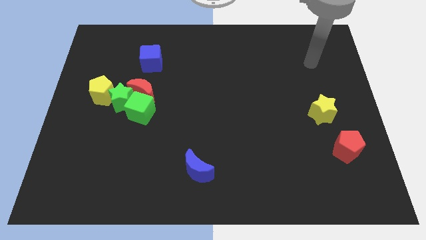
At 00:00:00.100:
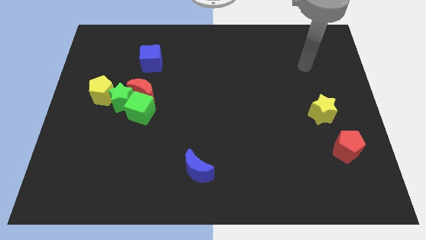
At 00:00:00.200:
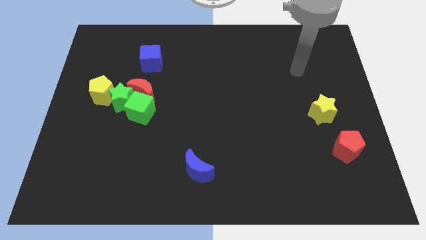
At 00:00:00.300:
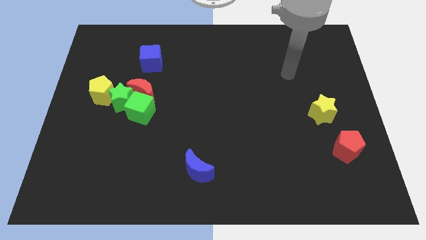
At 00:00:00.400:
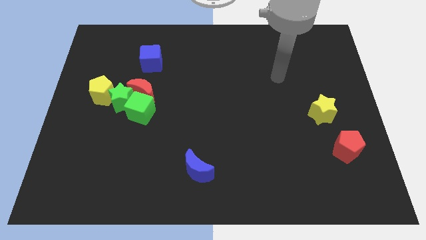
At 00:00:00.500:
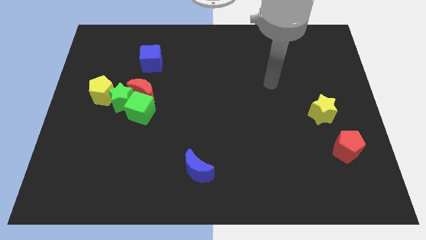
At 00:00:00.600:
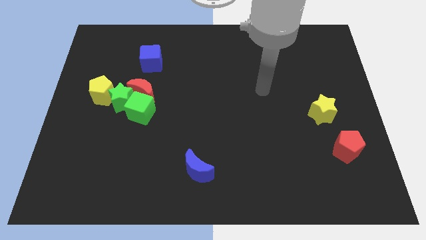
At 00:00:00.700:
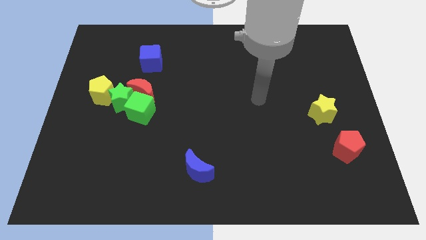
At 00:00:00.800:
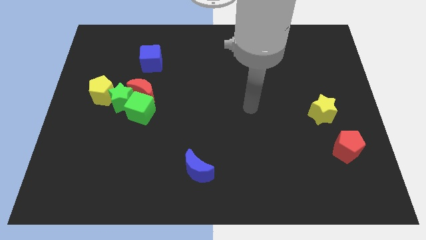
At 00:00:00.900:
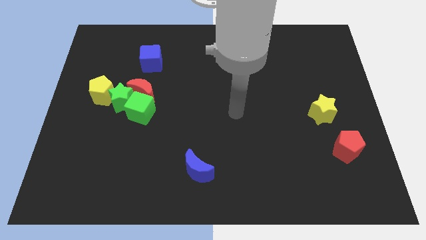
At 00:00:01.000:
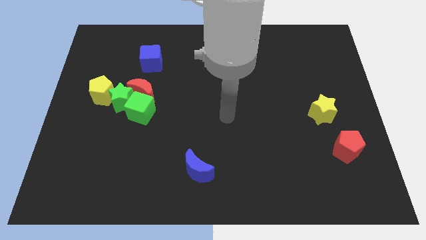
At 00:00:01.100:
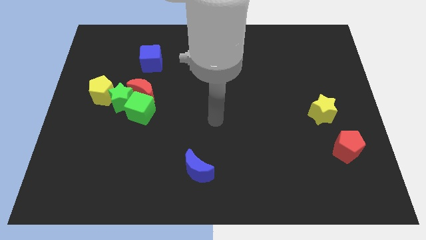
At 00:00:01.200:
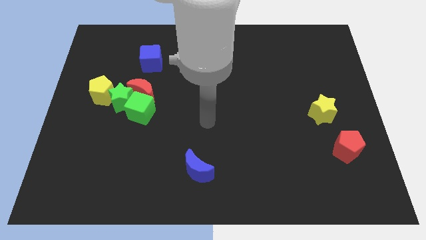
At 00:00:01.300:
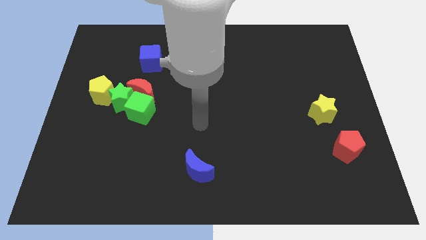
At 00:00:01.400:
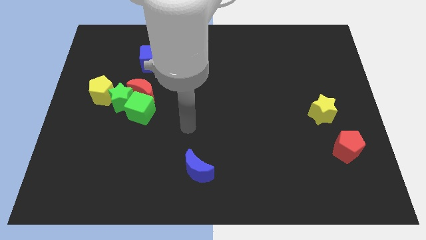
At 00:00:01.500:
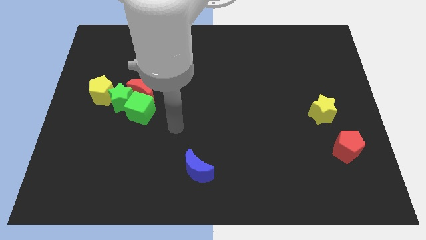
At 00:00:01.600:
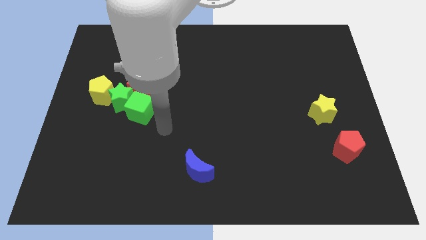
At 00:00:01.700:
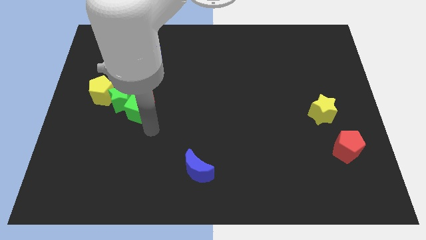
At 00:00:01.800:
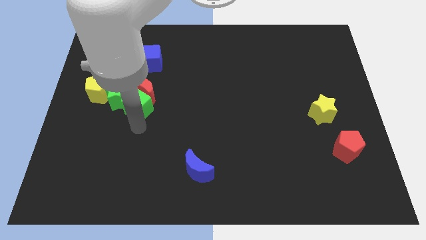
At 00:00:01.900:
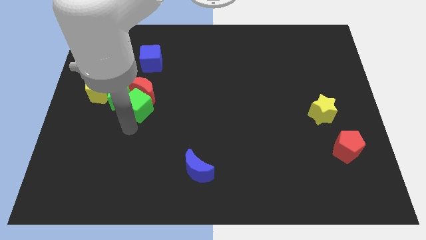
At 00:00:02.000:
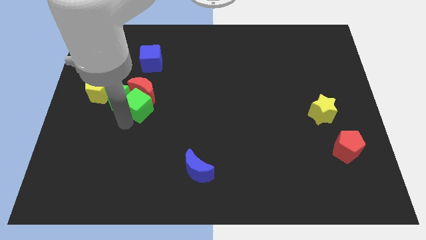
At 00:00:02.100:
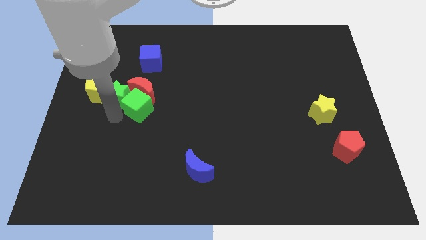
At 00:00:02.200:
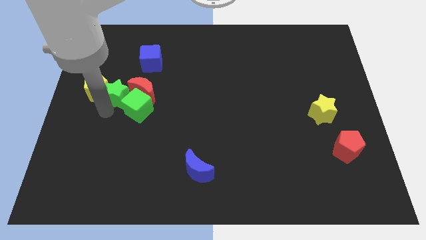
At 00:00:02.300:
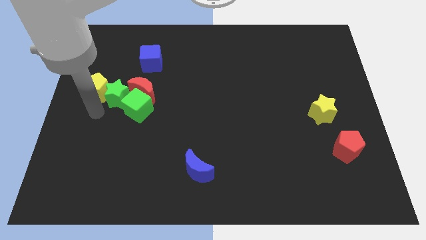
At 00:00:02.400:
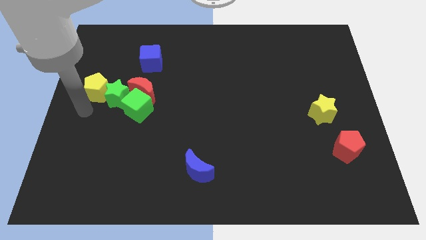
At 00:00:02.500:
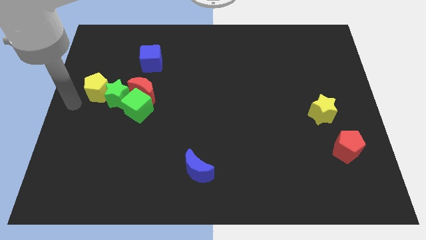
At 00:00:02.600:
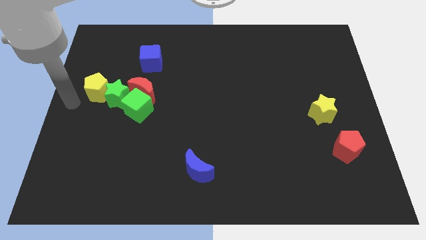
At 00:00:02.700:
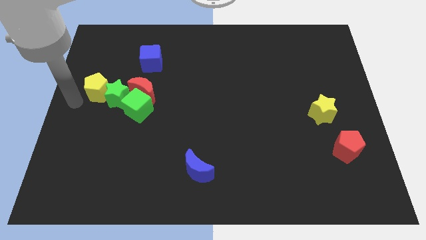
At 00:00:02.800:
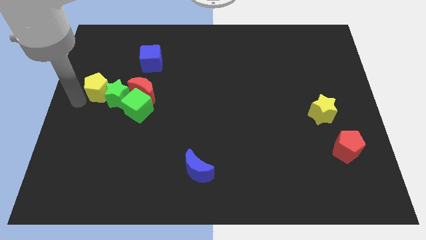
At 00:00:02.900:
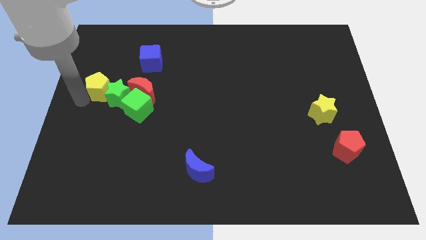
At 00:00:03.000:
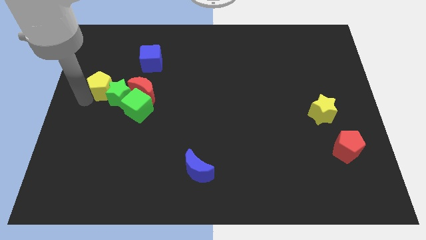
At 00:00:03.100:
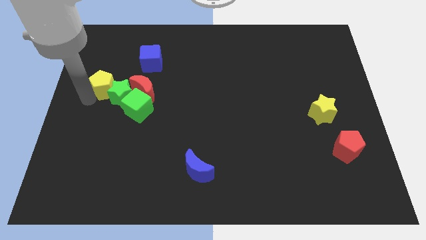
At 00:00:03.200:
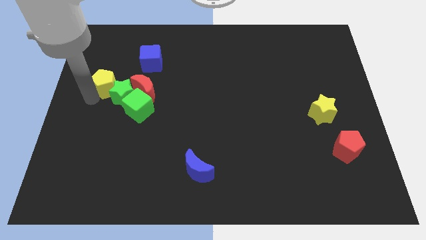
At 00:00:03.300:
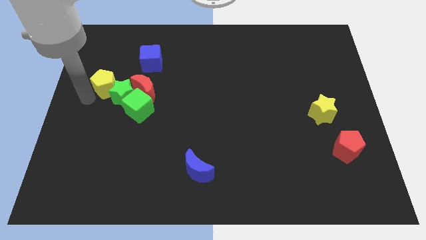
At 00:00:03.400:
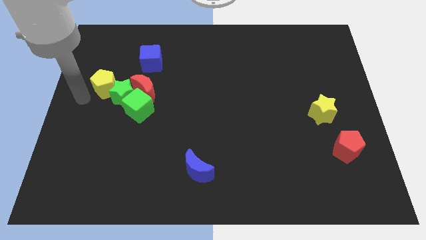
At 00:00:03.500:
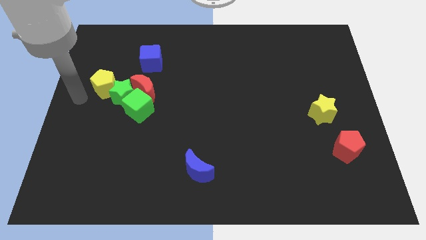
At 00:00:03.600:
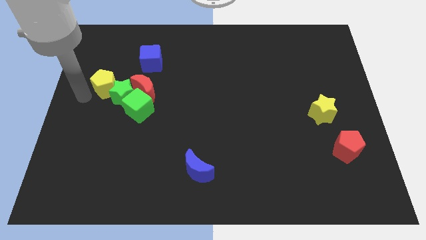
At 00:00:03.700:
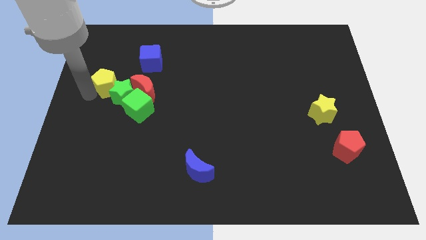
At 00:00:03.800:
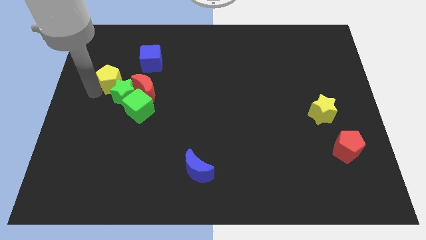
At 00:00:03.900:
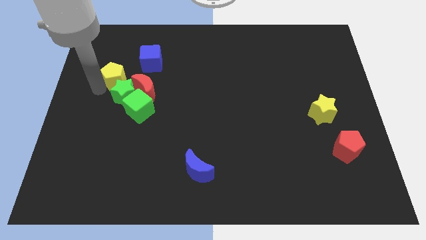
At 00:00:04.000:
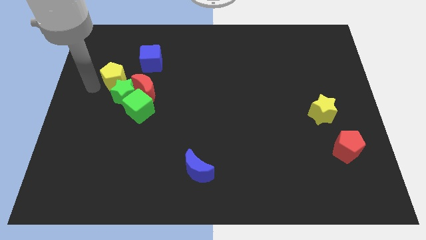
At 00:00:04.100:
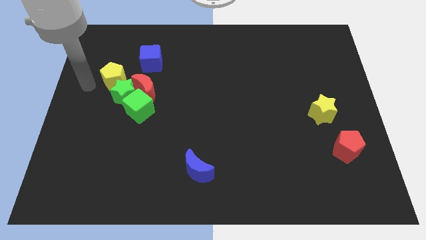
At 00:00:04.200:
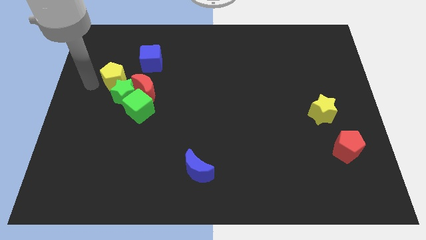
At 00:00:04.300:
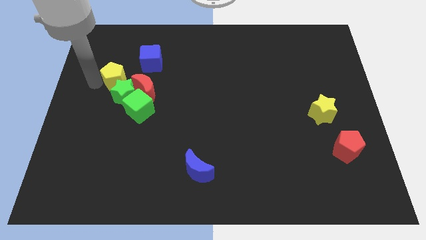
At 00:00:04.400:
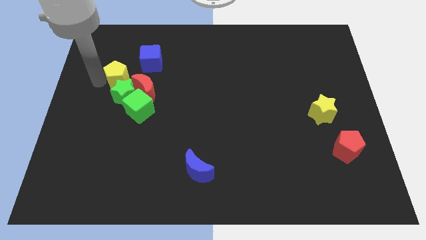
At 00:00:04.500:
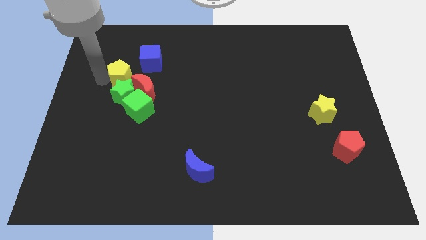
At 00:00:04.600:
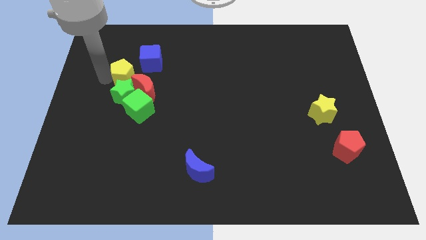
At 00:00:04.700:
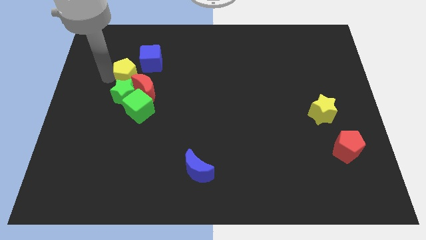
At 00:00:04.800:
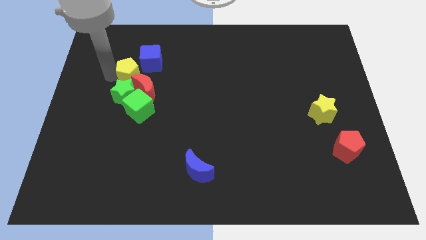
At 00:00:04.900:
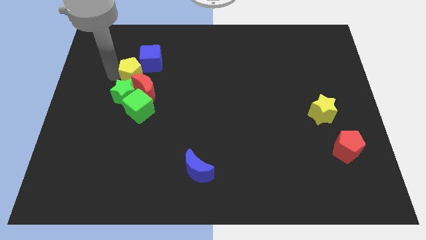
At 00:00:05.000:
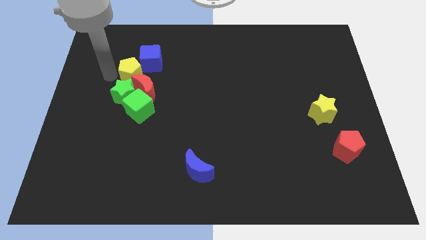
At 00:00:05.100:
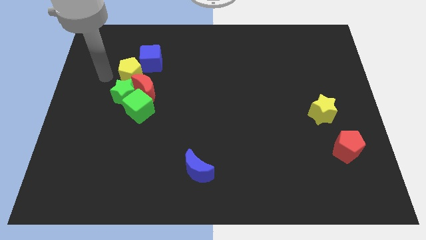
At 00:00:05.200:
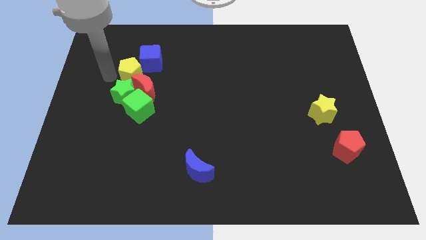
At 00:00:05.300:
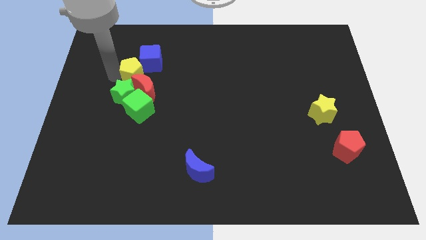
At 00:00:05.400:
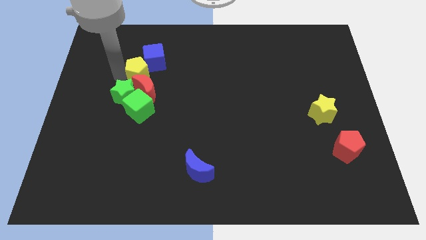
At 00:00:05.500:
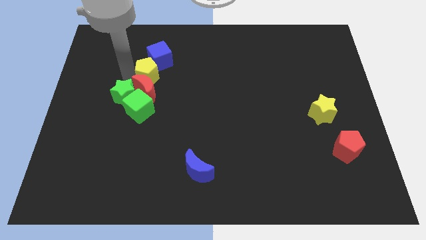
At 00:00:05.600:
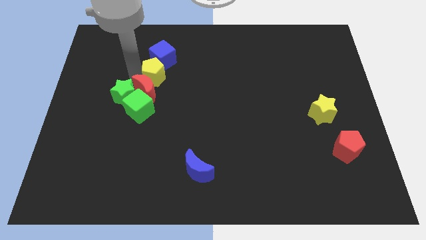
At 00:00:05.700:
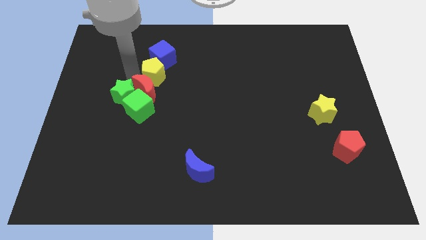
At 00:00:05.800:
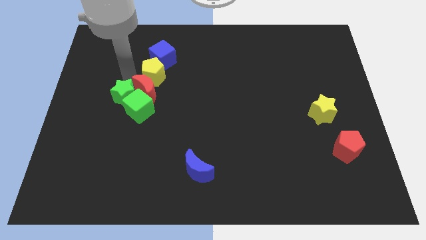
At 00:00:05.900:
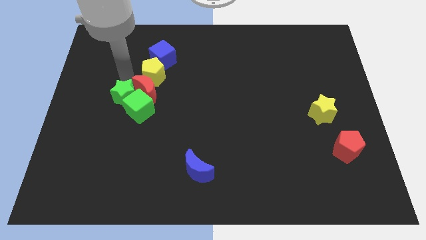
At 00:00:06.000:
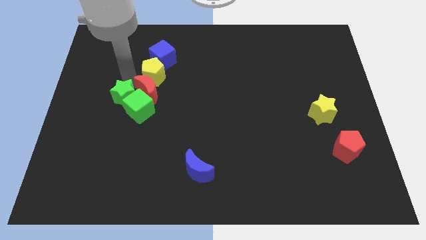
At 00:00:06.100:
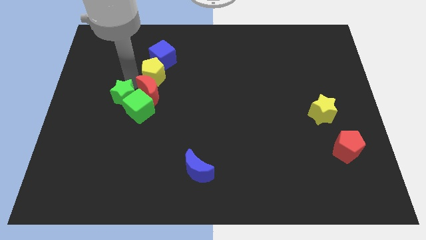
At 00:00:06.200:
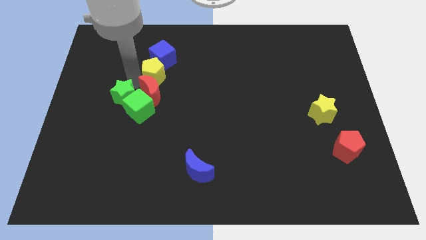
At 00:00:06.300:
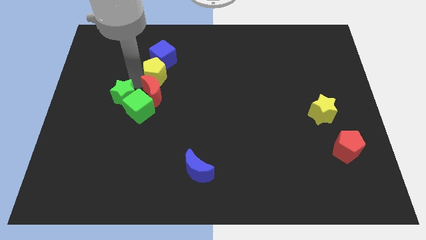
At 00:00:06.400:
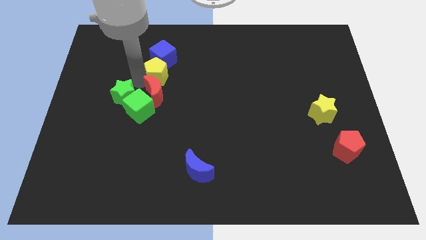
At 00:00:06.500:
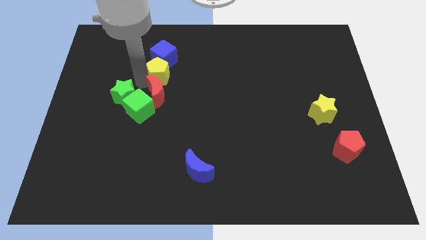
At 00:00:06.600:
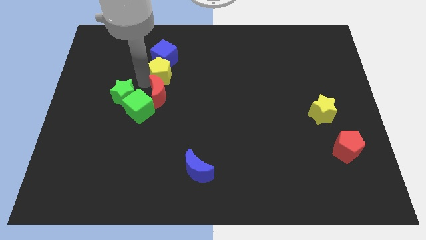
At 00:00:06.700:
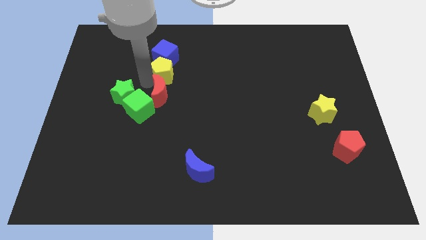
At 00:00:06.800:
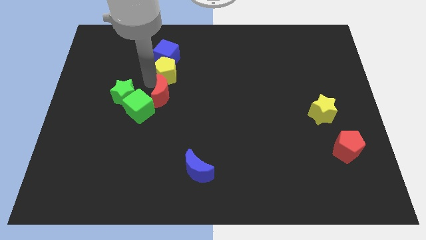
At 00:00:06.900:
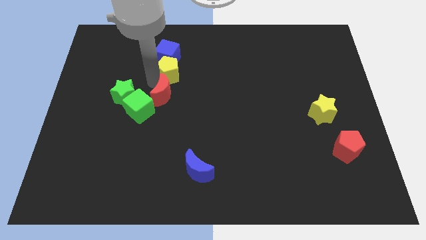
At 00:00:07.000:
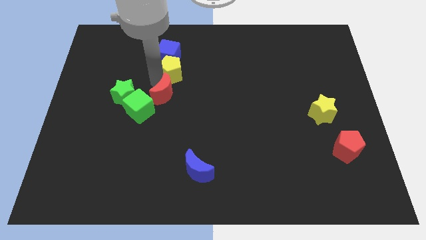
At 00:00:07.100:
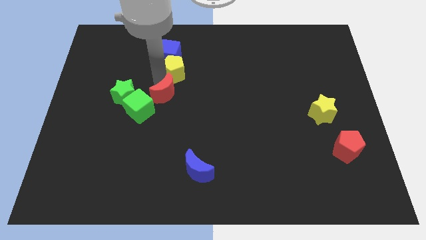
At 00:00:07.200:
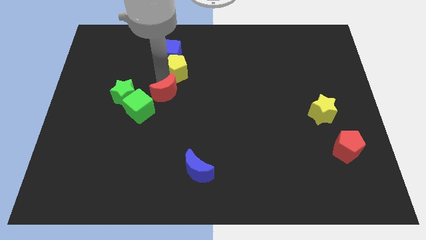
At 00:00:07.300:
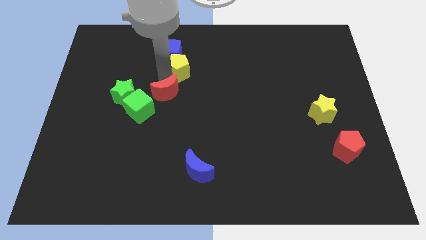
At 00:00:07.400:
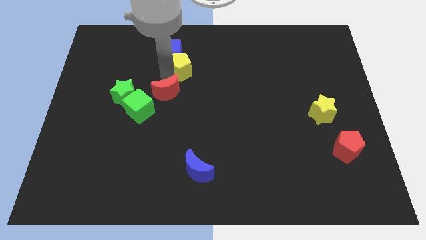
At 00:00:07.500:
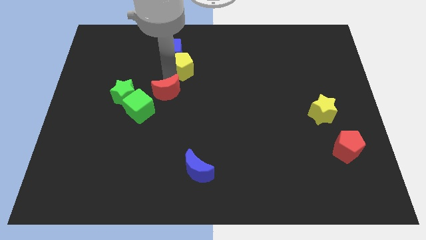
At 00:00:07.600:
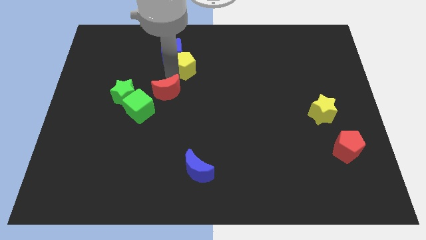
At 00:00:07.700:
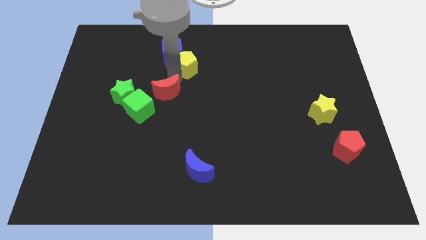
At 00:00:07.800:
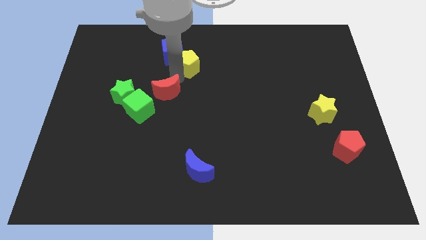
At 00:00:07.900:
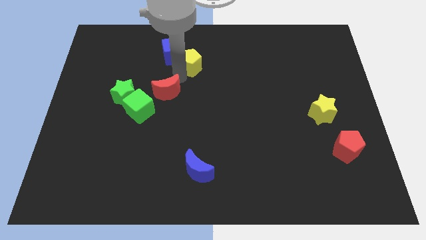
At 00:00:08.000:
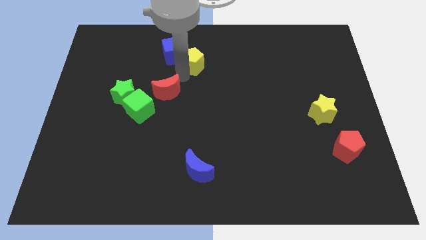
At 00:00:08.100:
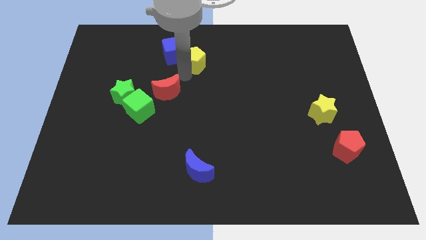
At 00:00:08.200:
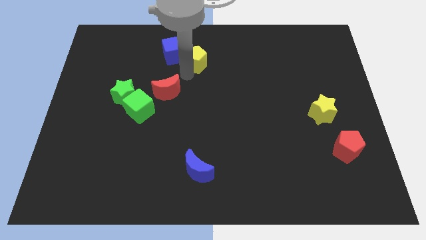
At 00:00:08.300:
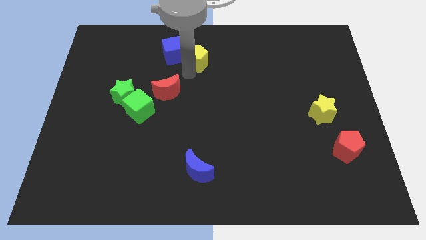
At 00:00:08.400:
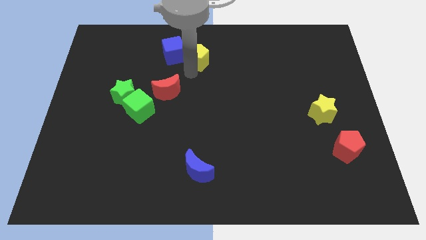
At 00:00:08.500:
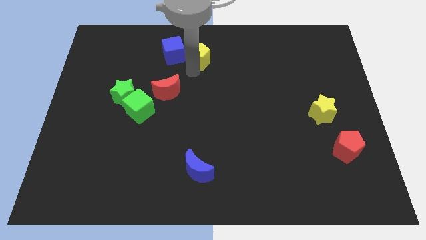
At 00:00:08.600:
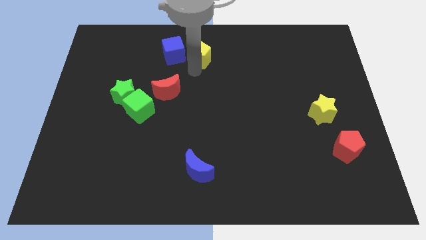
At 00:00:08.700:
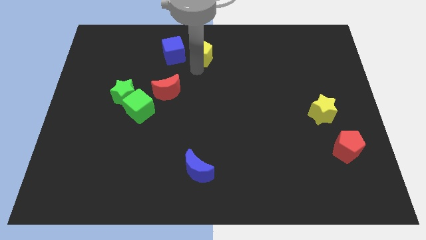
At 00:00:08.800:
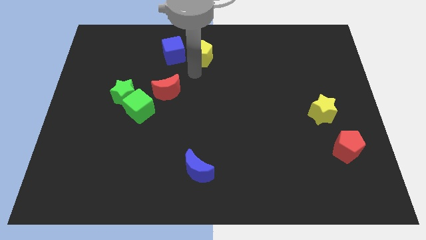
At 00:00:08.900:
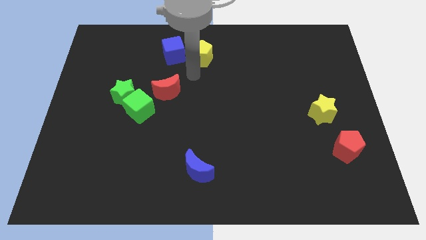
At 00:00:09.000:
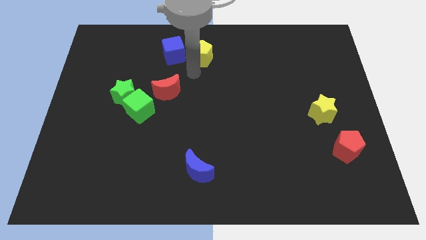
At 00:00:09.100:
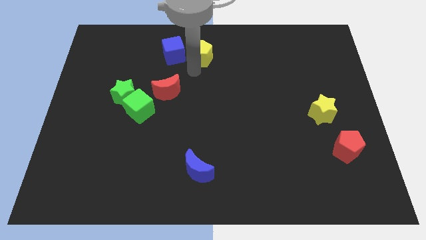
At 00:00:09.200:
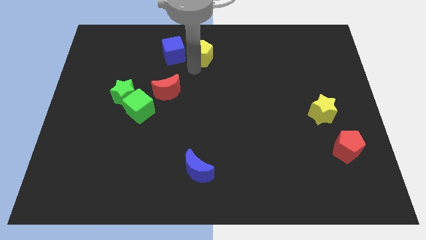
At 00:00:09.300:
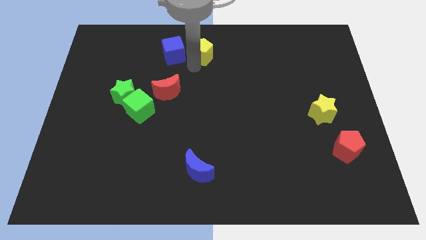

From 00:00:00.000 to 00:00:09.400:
slide the yellow pentagon to the top side
